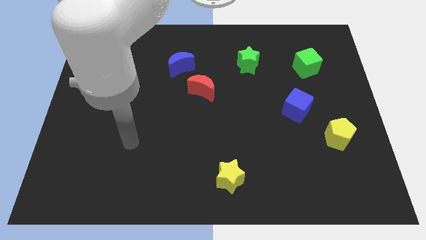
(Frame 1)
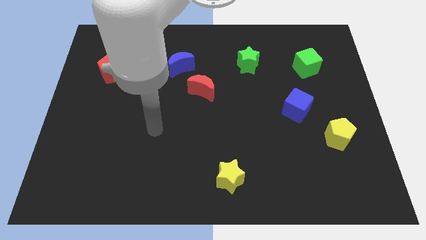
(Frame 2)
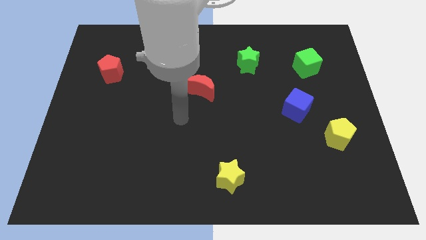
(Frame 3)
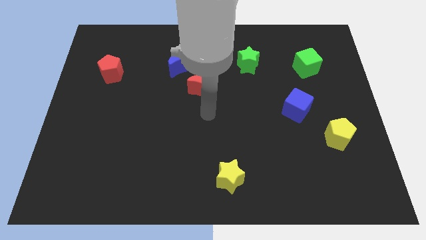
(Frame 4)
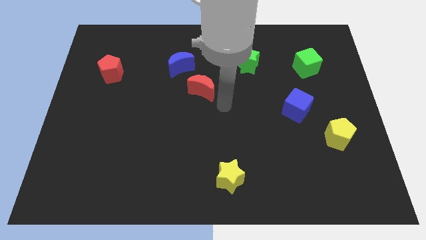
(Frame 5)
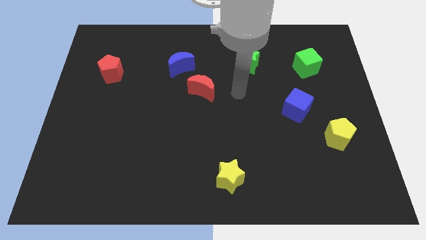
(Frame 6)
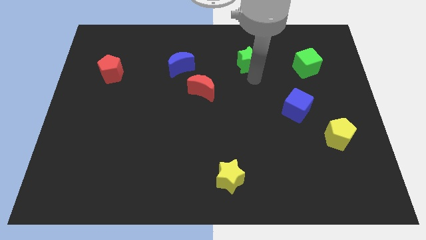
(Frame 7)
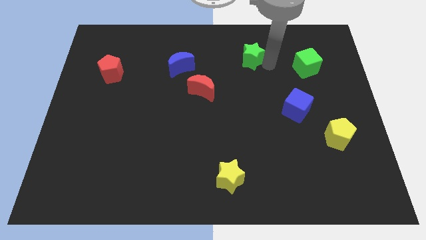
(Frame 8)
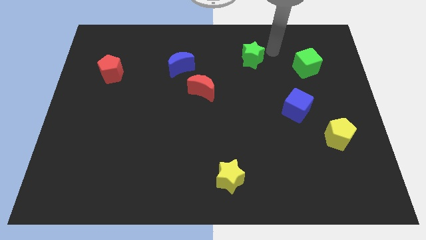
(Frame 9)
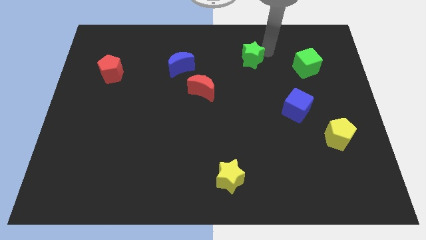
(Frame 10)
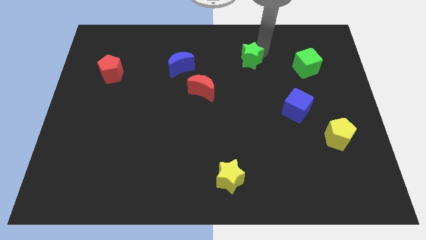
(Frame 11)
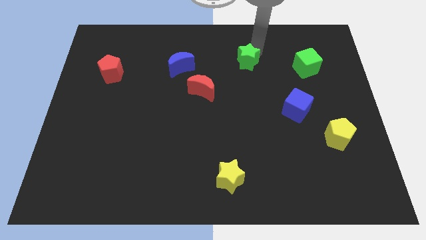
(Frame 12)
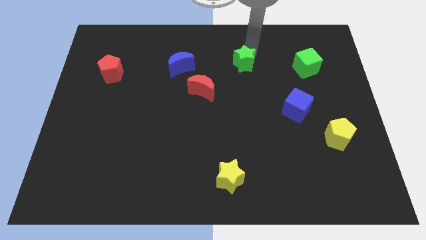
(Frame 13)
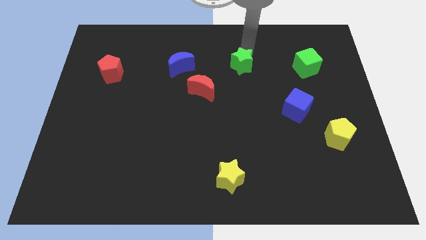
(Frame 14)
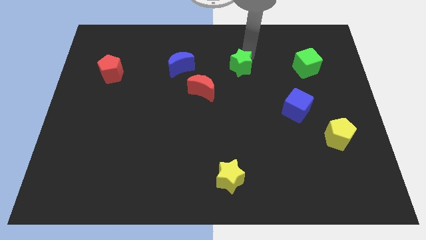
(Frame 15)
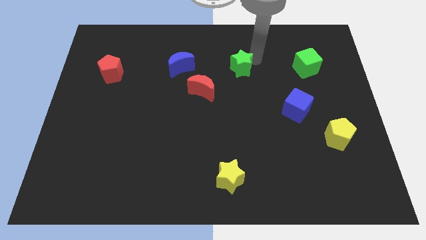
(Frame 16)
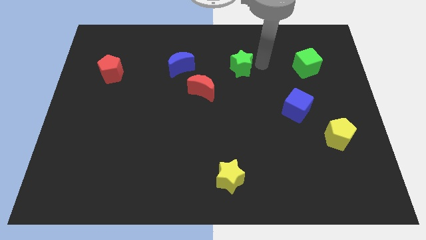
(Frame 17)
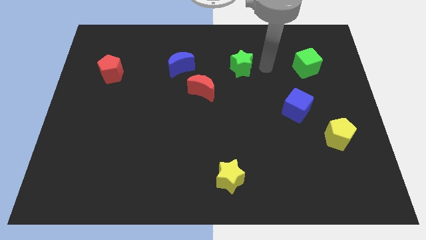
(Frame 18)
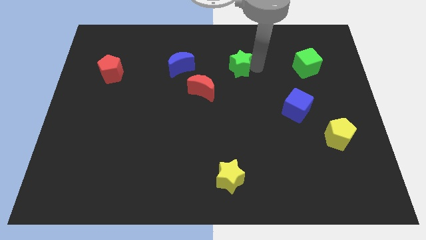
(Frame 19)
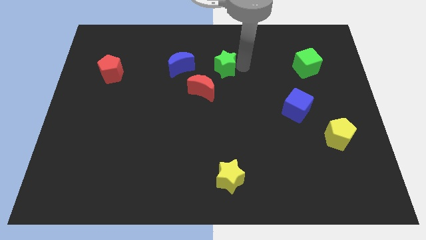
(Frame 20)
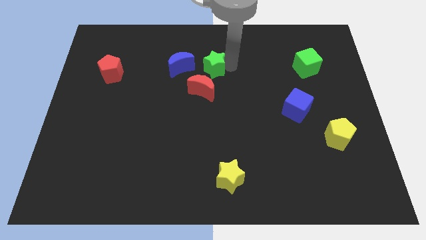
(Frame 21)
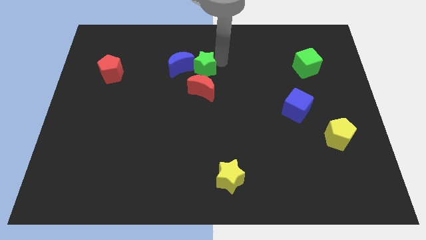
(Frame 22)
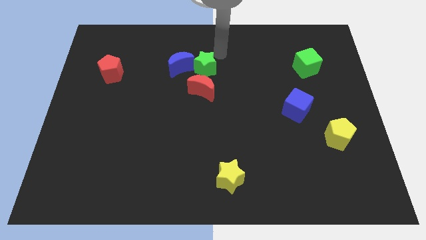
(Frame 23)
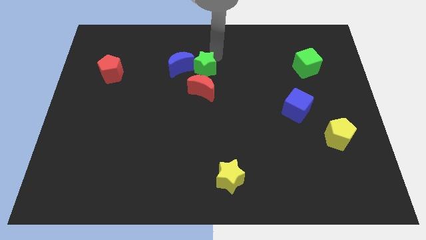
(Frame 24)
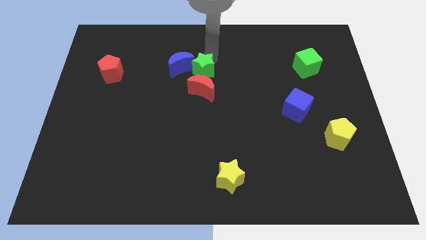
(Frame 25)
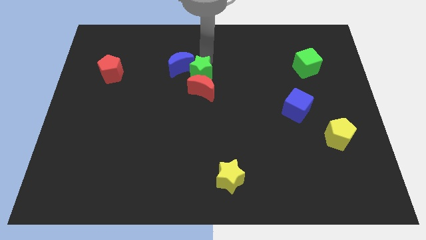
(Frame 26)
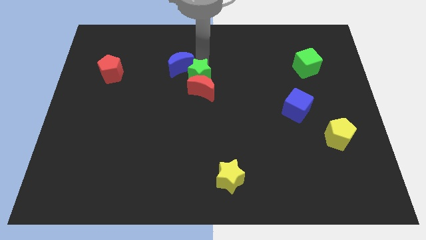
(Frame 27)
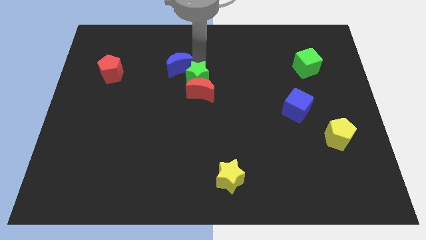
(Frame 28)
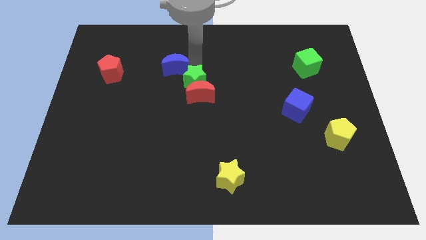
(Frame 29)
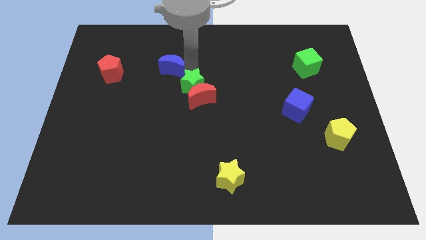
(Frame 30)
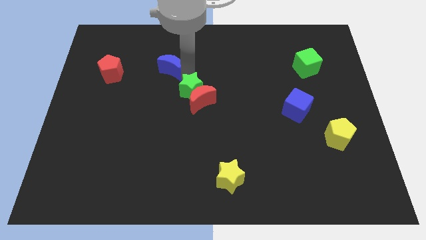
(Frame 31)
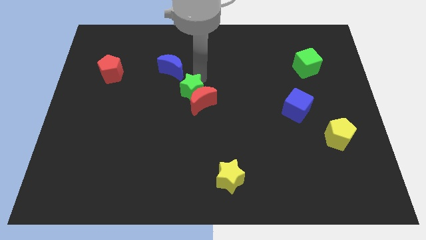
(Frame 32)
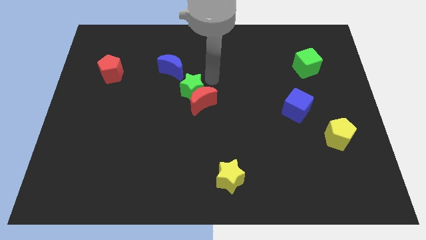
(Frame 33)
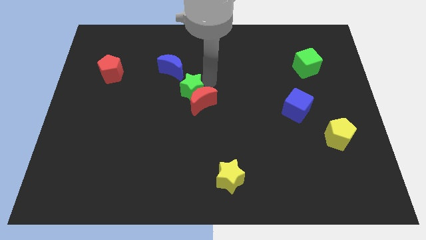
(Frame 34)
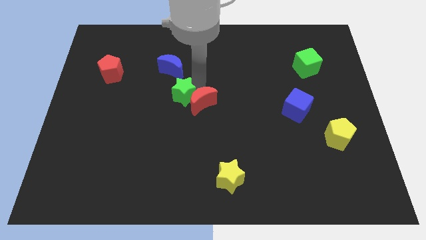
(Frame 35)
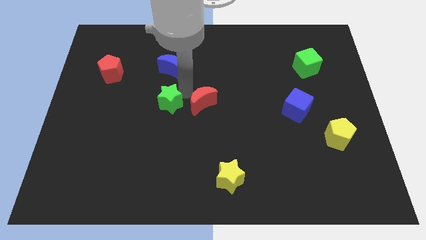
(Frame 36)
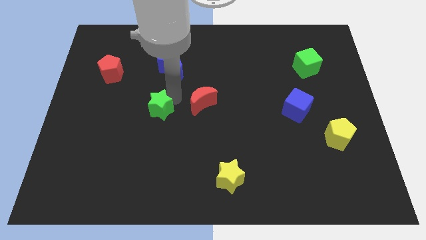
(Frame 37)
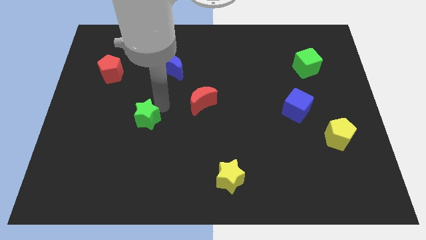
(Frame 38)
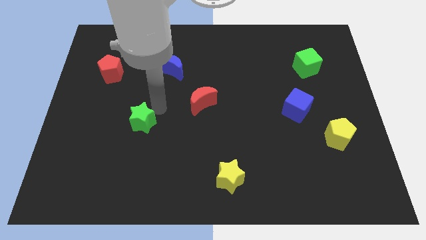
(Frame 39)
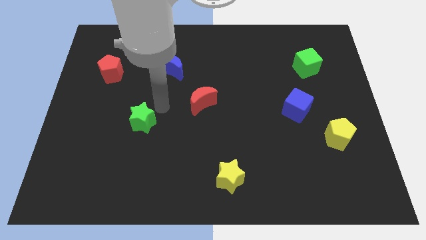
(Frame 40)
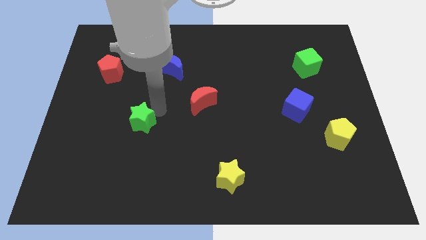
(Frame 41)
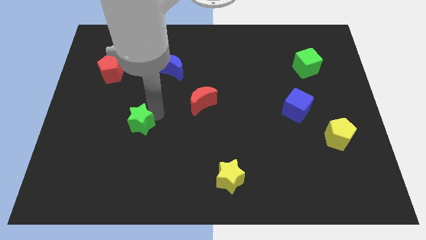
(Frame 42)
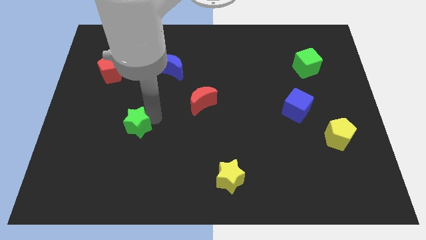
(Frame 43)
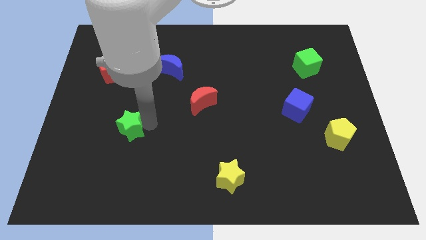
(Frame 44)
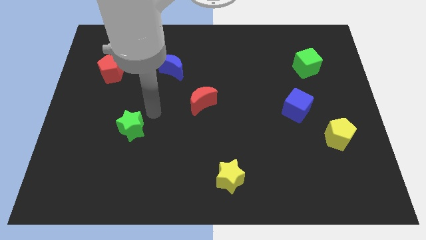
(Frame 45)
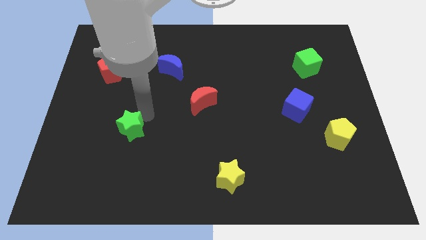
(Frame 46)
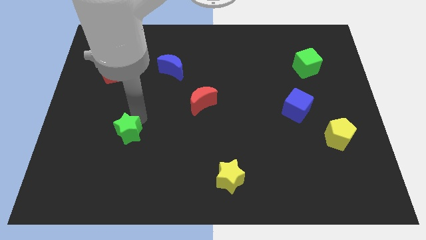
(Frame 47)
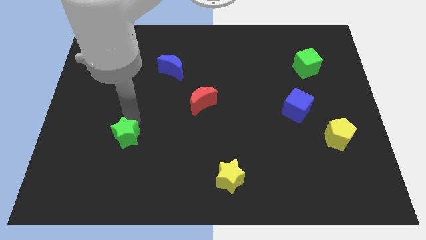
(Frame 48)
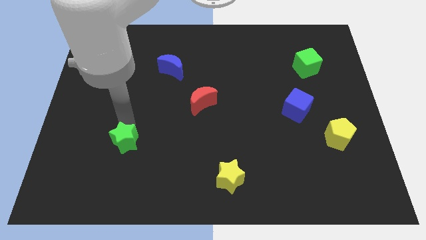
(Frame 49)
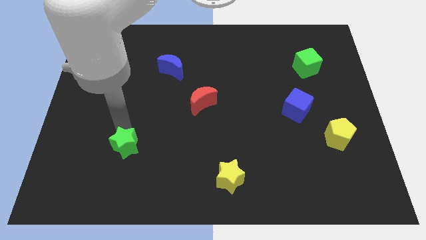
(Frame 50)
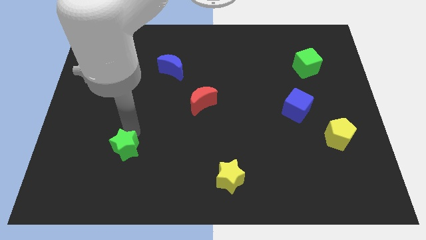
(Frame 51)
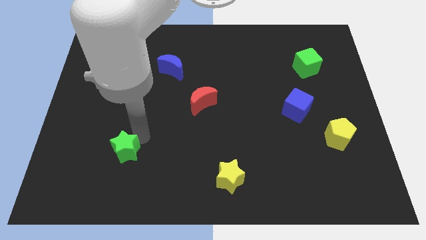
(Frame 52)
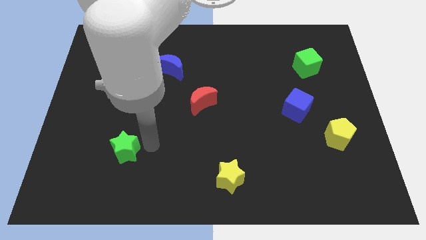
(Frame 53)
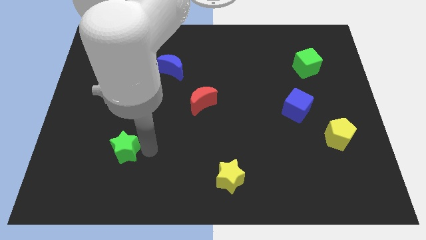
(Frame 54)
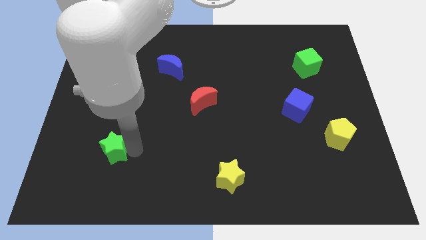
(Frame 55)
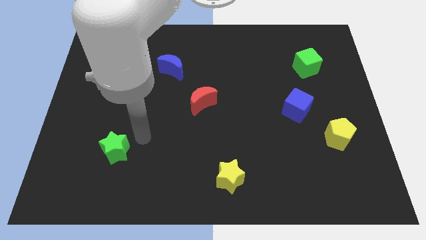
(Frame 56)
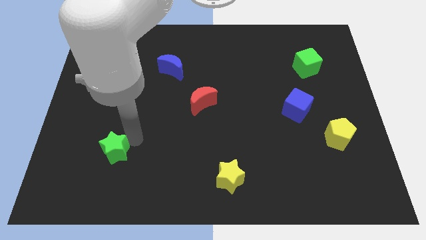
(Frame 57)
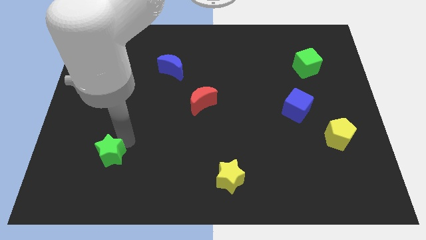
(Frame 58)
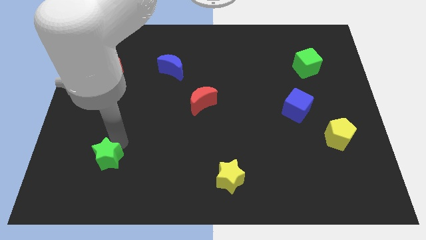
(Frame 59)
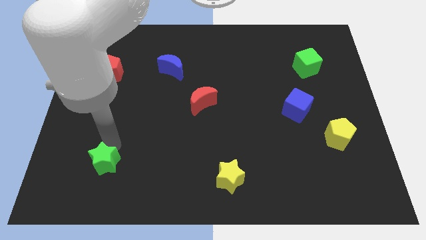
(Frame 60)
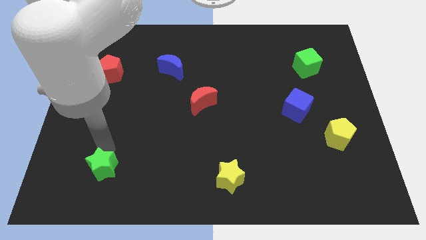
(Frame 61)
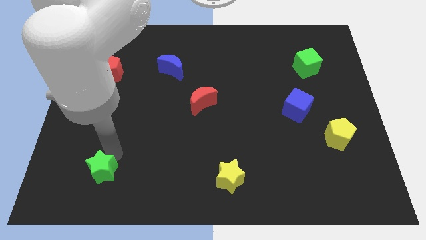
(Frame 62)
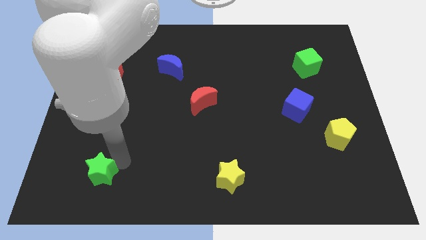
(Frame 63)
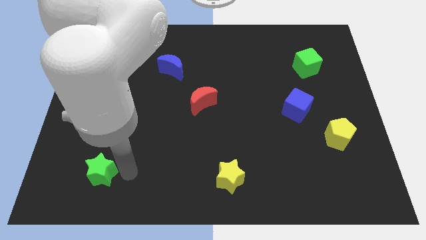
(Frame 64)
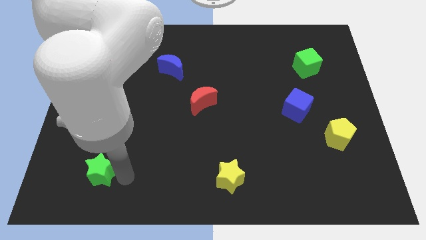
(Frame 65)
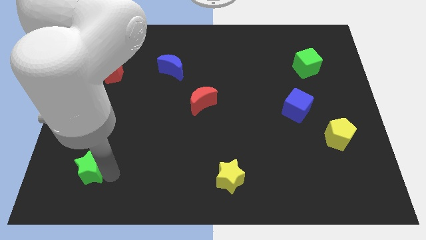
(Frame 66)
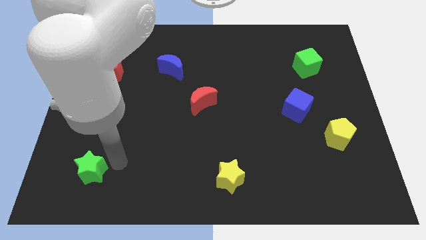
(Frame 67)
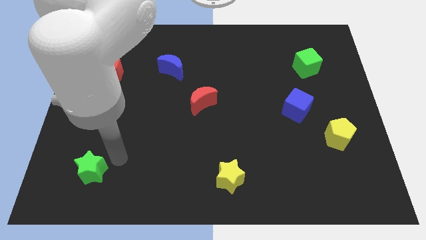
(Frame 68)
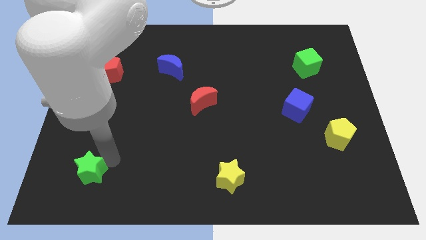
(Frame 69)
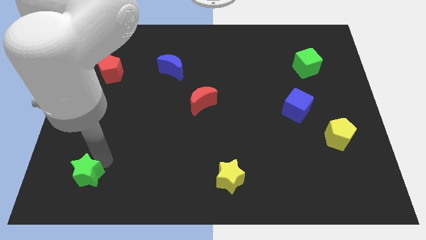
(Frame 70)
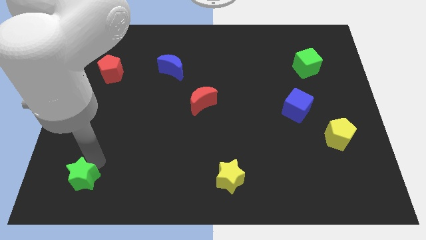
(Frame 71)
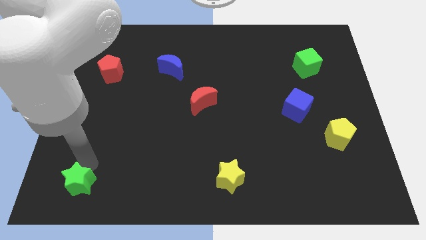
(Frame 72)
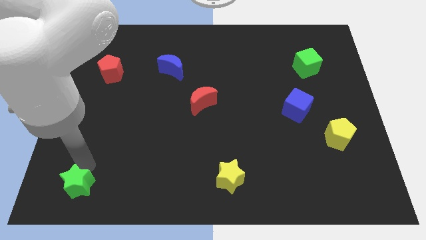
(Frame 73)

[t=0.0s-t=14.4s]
put the green star to the bottom left corner

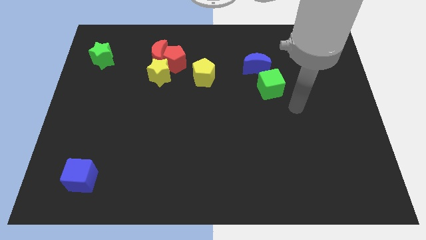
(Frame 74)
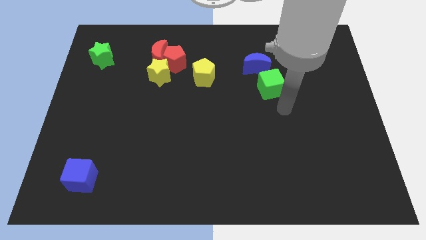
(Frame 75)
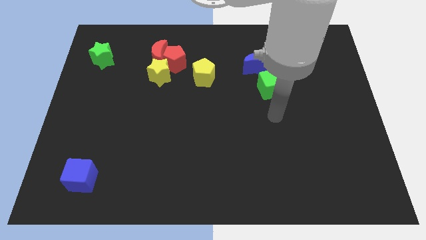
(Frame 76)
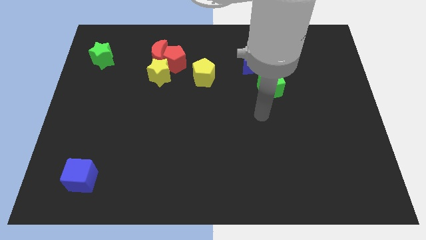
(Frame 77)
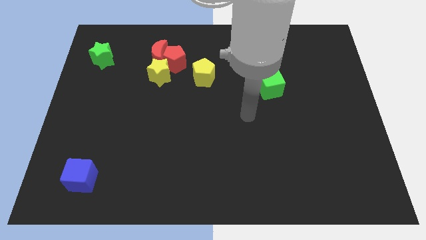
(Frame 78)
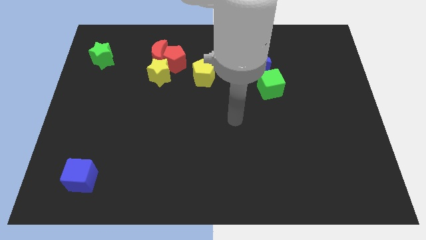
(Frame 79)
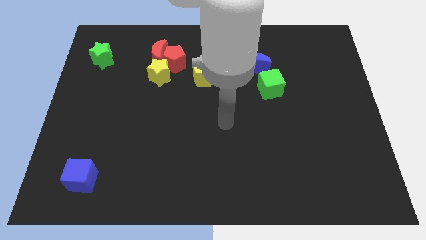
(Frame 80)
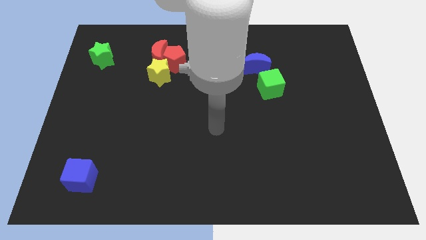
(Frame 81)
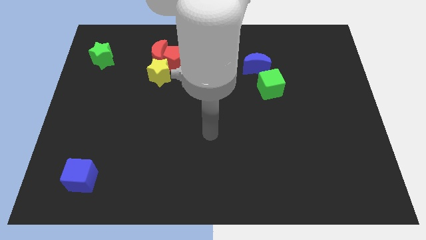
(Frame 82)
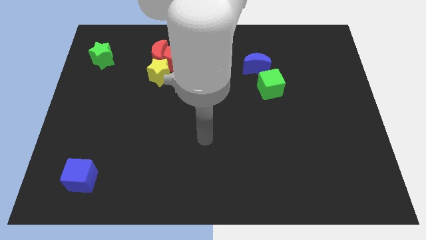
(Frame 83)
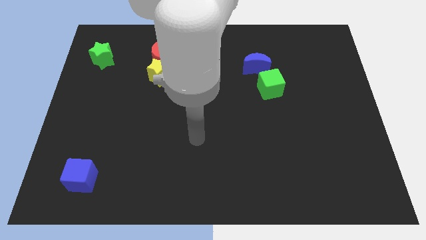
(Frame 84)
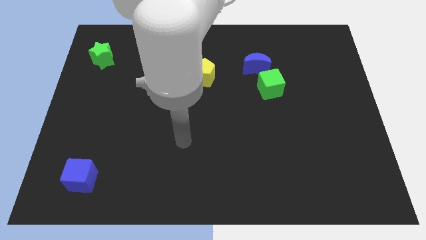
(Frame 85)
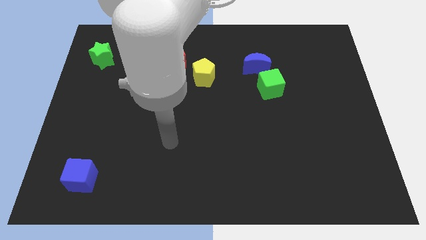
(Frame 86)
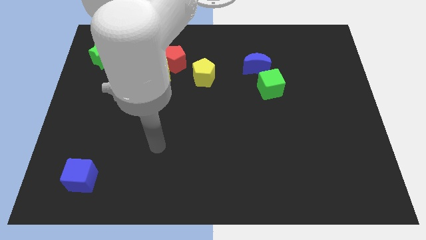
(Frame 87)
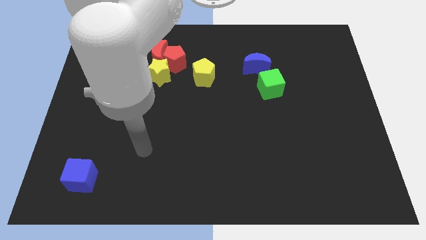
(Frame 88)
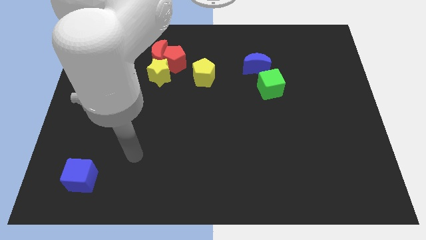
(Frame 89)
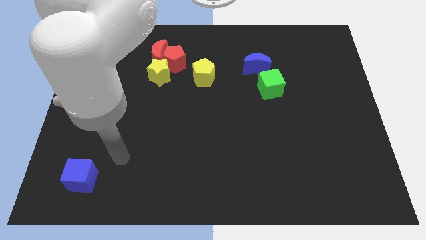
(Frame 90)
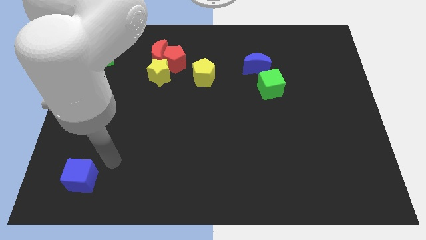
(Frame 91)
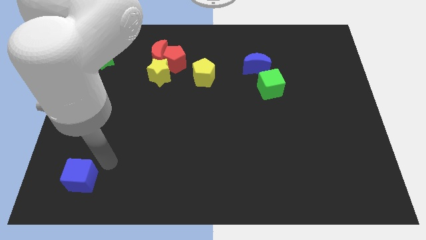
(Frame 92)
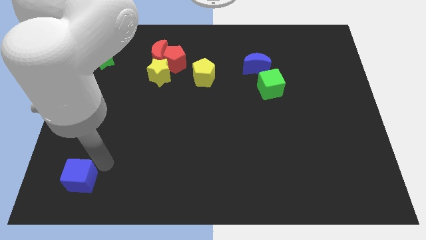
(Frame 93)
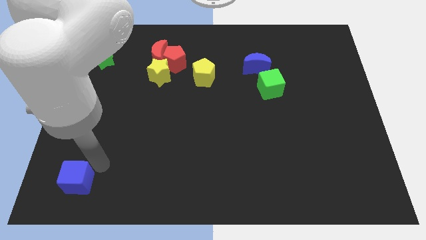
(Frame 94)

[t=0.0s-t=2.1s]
slide the blue cube to the bottom left
